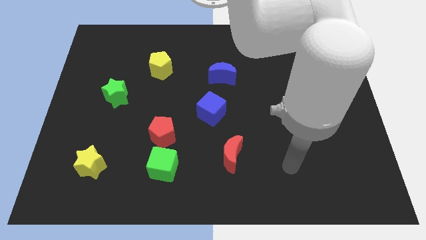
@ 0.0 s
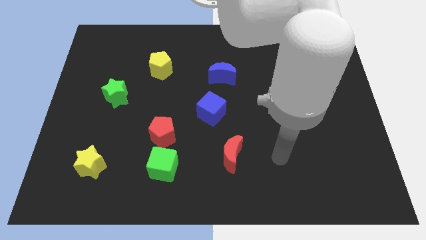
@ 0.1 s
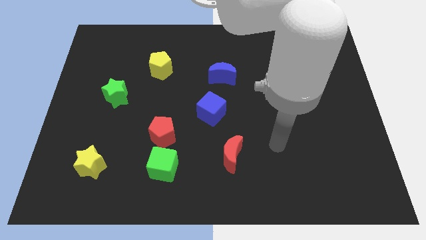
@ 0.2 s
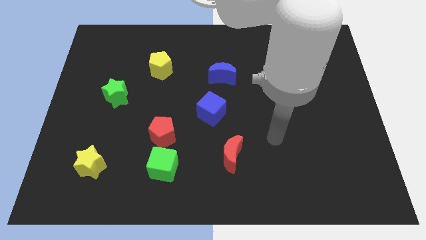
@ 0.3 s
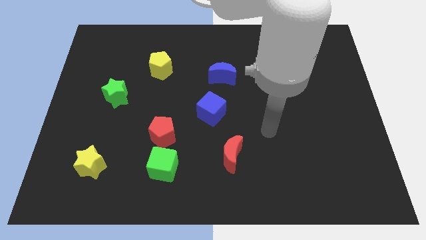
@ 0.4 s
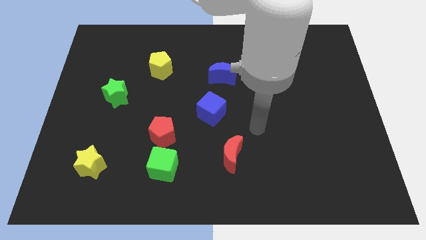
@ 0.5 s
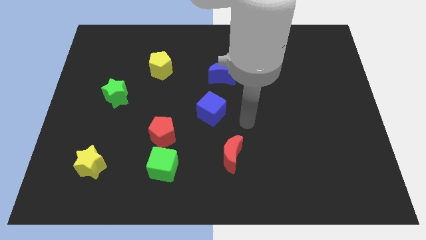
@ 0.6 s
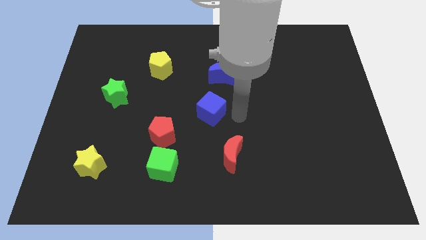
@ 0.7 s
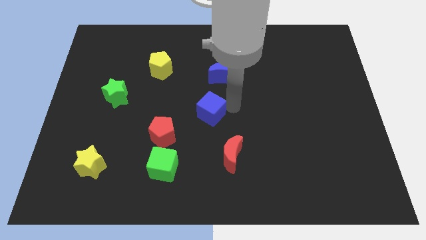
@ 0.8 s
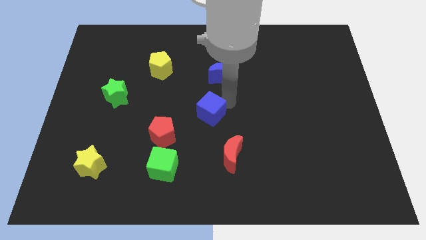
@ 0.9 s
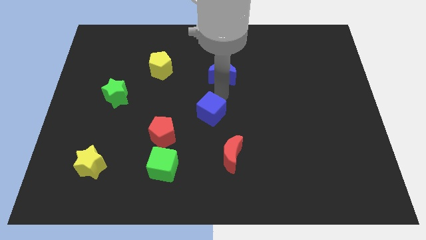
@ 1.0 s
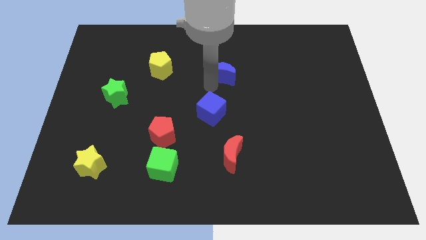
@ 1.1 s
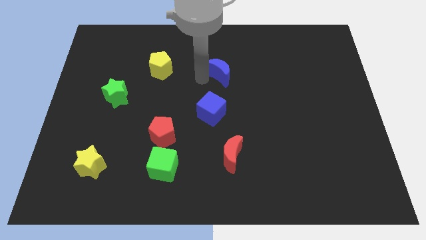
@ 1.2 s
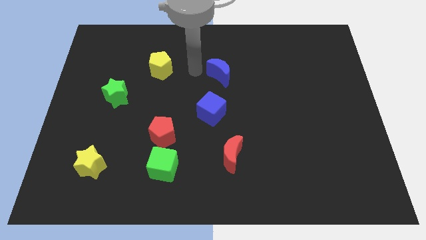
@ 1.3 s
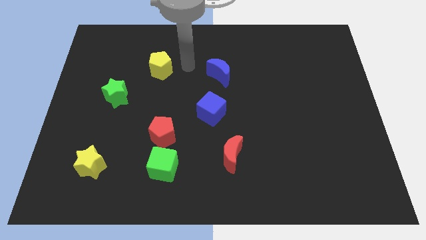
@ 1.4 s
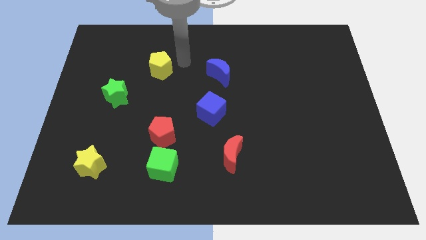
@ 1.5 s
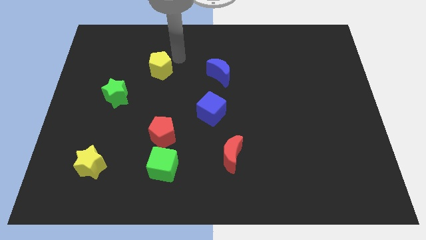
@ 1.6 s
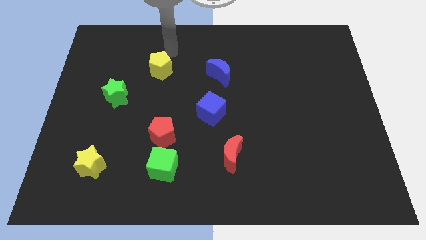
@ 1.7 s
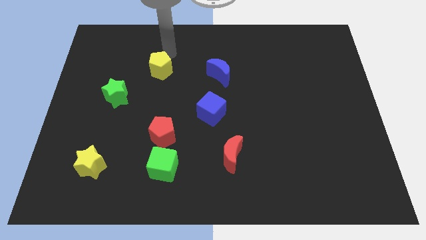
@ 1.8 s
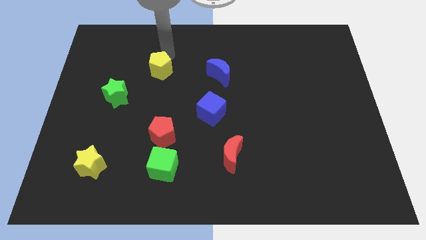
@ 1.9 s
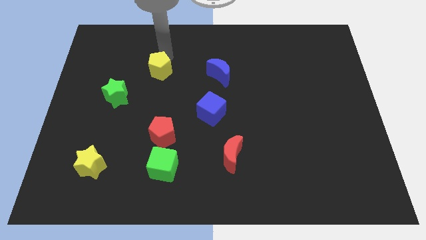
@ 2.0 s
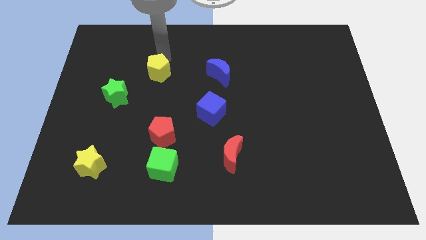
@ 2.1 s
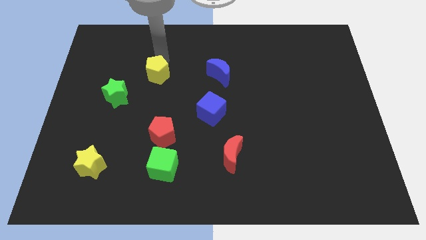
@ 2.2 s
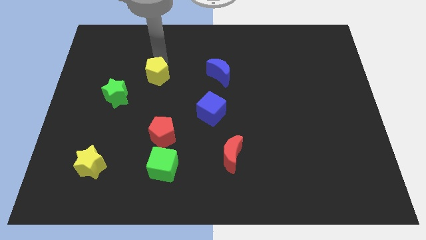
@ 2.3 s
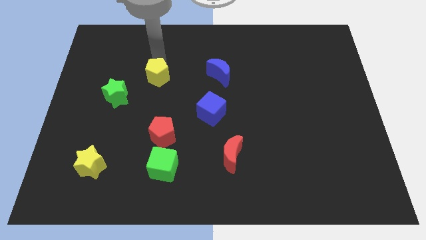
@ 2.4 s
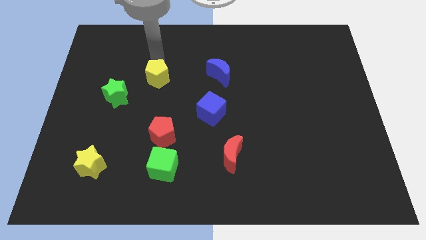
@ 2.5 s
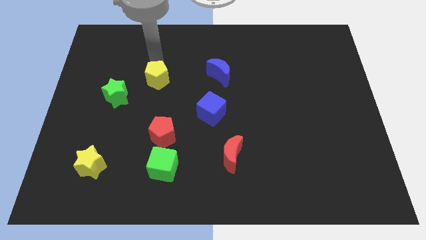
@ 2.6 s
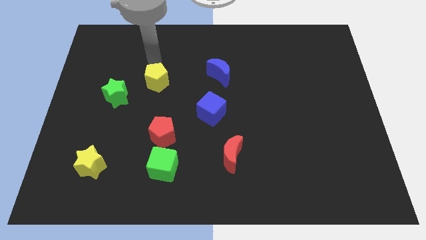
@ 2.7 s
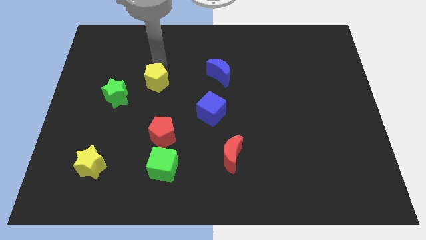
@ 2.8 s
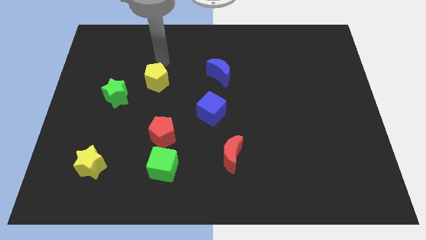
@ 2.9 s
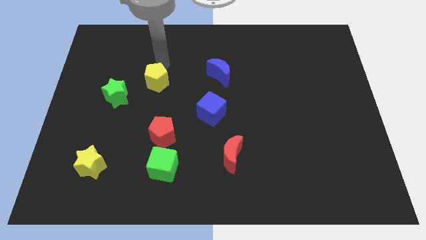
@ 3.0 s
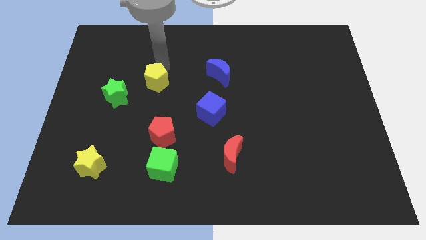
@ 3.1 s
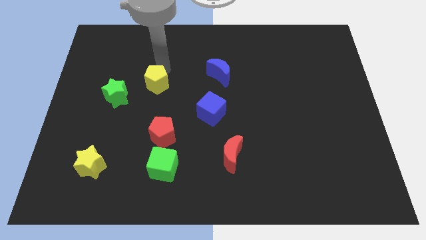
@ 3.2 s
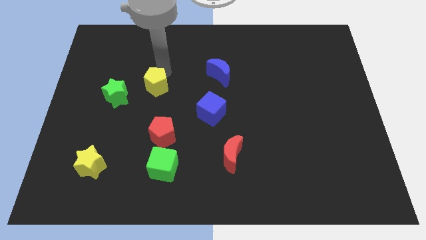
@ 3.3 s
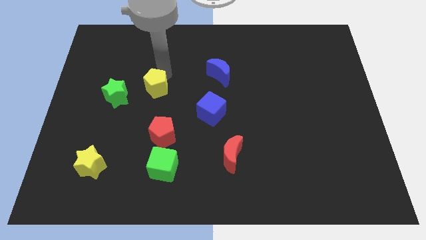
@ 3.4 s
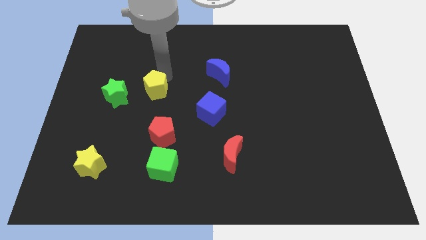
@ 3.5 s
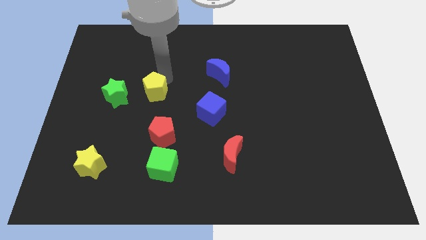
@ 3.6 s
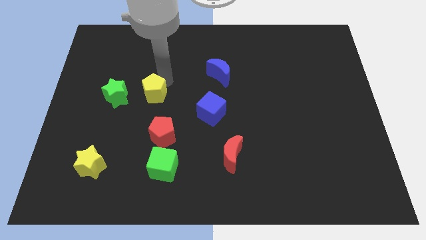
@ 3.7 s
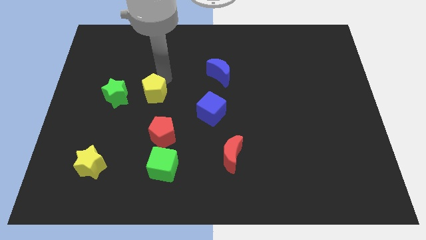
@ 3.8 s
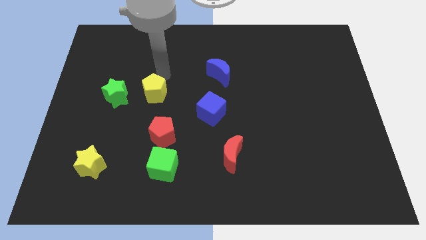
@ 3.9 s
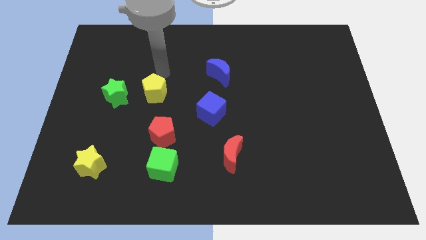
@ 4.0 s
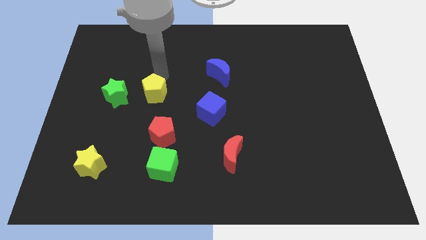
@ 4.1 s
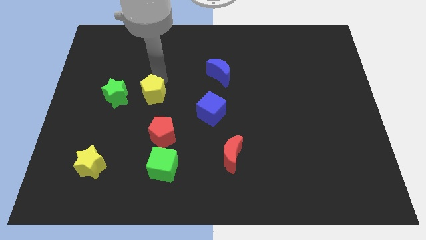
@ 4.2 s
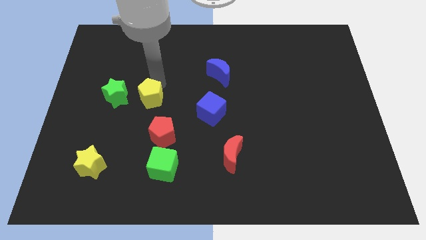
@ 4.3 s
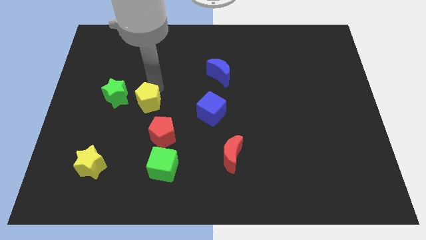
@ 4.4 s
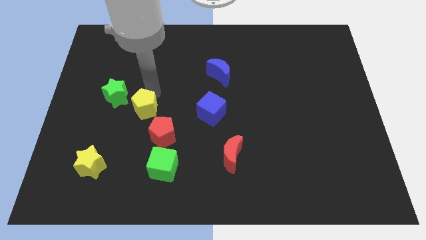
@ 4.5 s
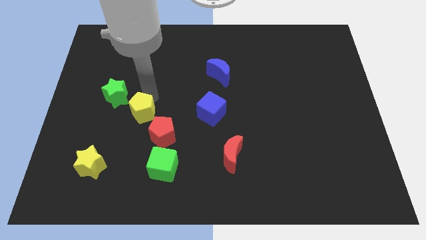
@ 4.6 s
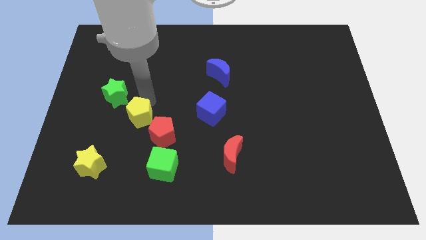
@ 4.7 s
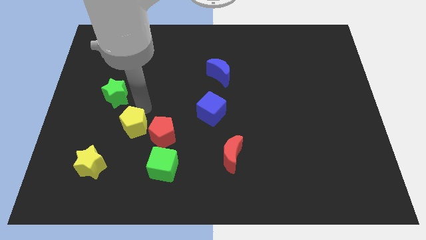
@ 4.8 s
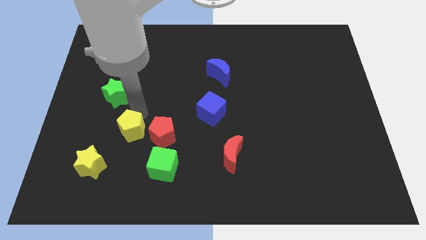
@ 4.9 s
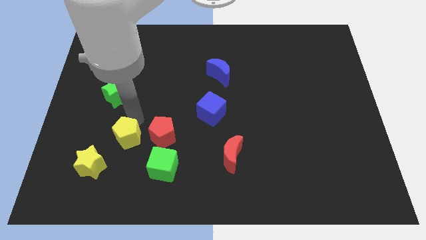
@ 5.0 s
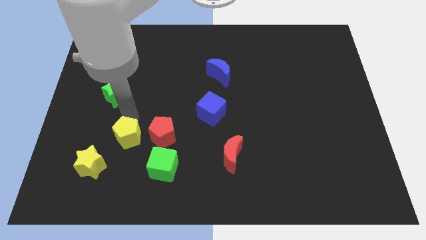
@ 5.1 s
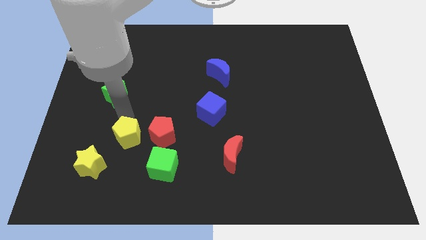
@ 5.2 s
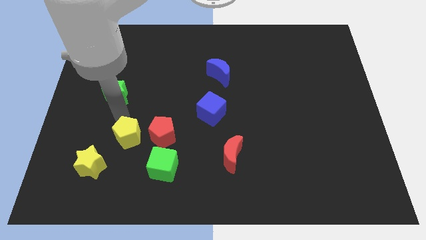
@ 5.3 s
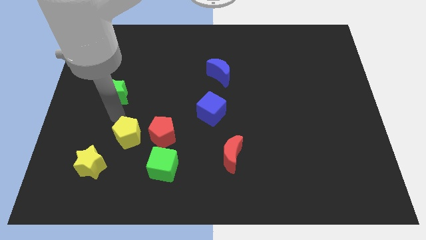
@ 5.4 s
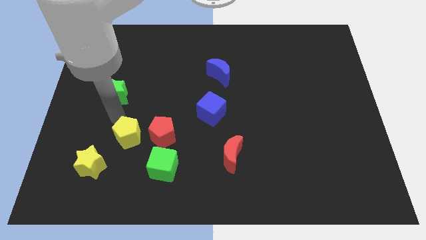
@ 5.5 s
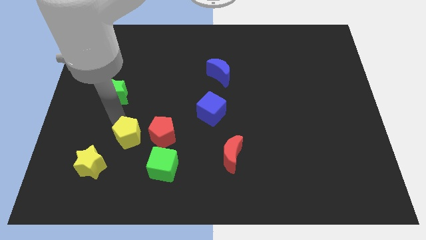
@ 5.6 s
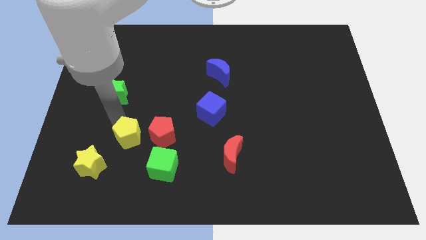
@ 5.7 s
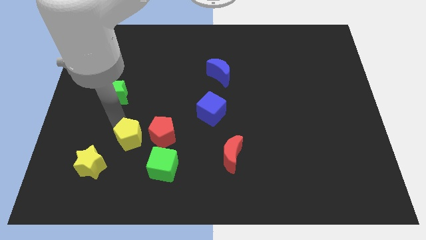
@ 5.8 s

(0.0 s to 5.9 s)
move the yellow pentagon downwards

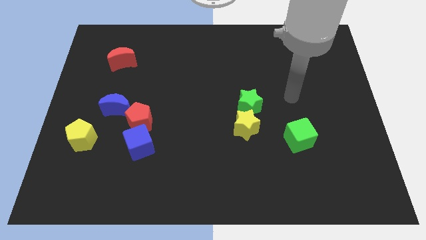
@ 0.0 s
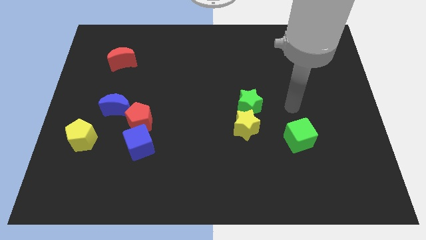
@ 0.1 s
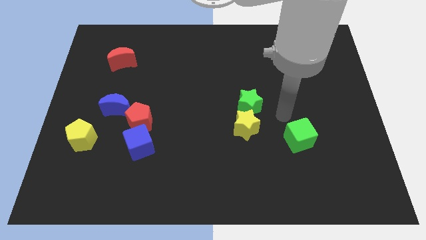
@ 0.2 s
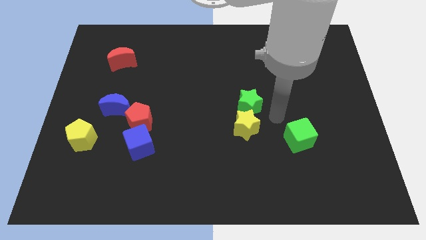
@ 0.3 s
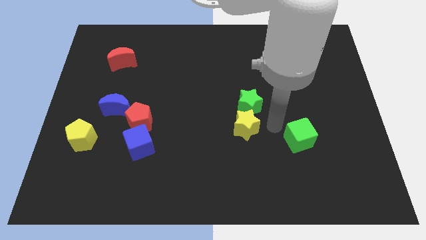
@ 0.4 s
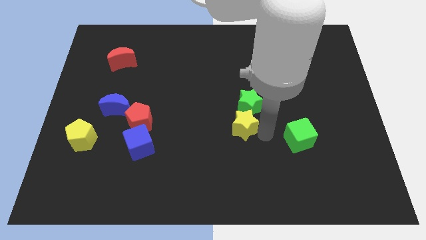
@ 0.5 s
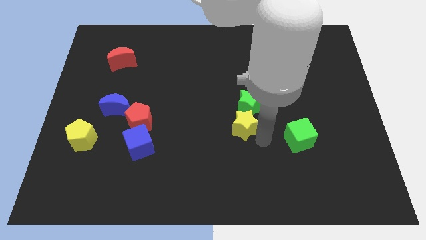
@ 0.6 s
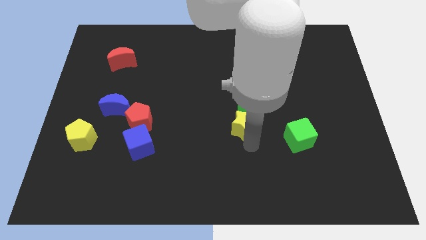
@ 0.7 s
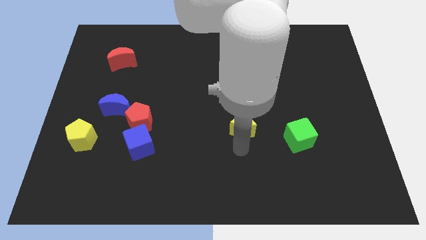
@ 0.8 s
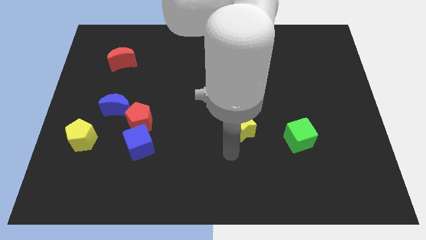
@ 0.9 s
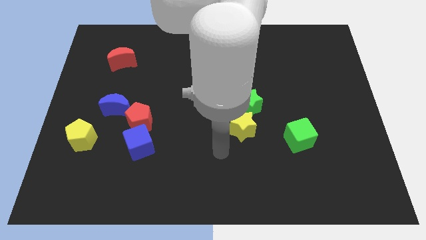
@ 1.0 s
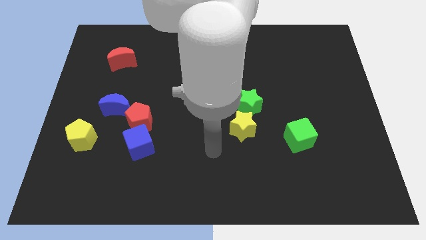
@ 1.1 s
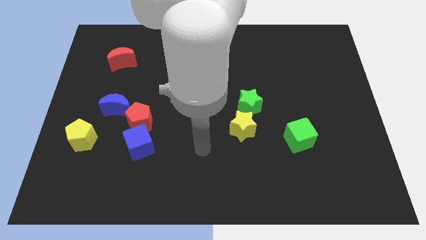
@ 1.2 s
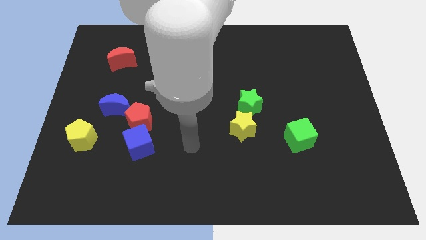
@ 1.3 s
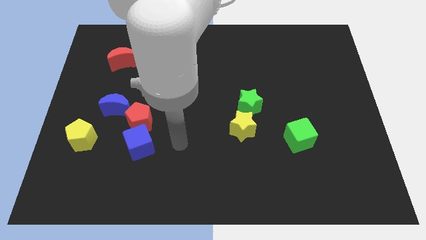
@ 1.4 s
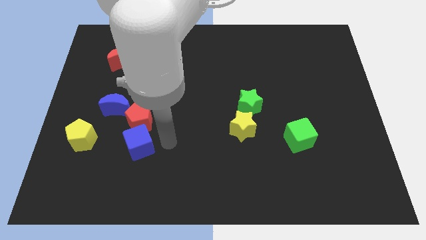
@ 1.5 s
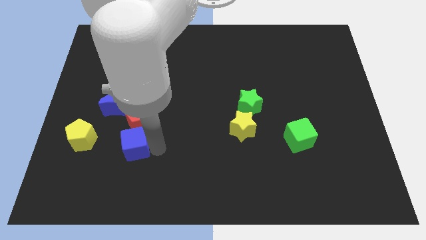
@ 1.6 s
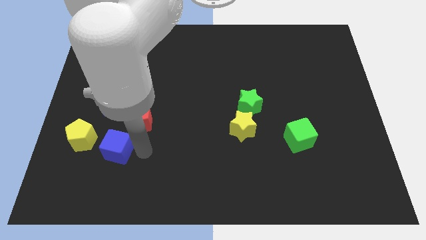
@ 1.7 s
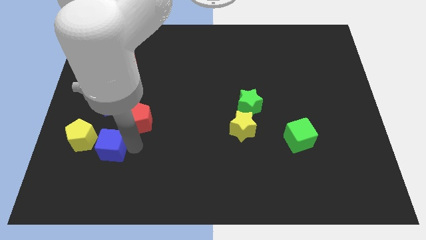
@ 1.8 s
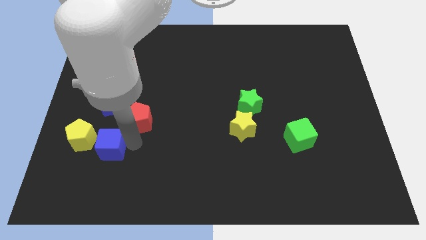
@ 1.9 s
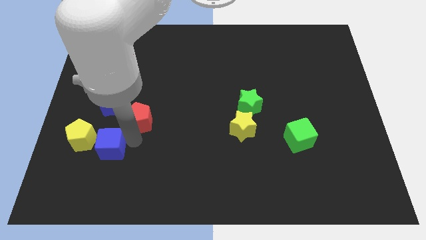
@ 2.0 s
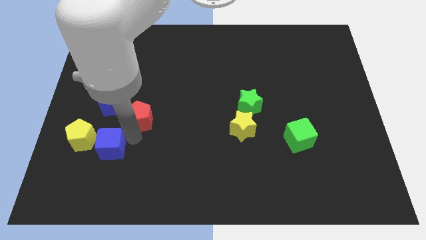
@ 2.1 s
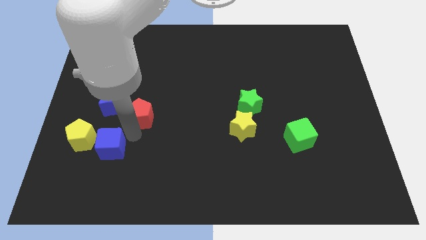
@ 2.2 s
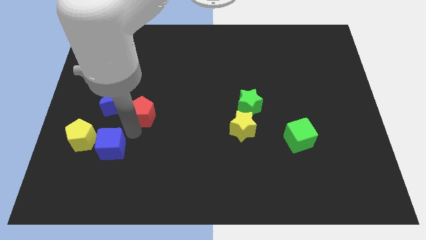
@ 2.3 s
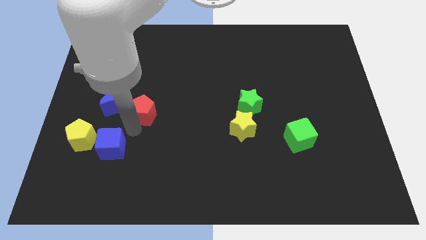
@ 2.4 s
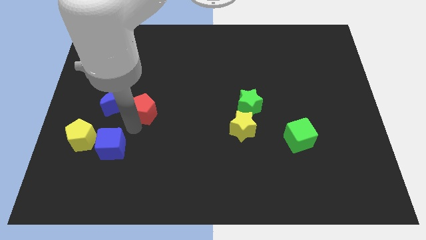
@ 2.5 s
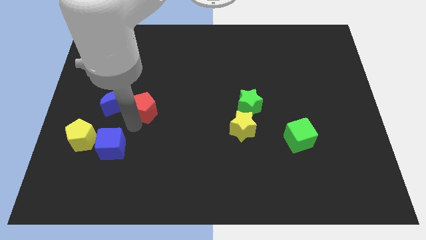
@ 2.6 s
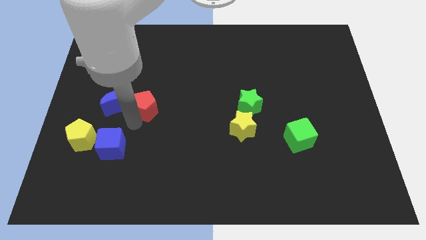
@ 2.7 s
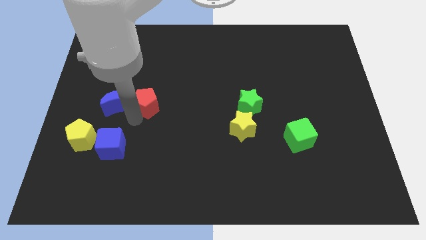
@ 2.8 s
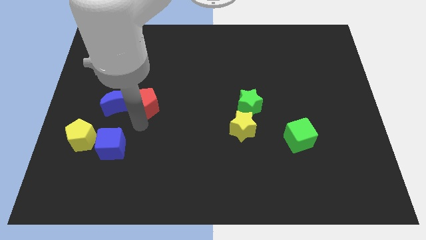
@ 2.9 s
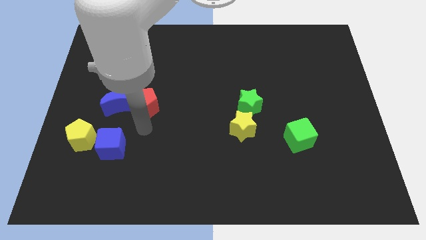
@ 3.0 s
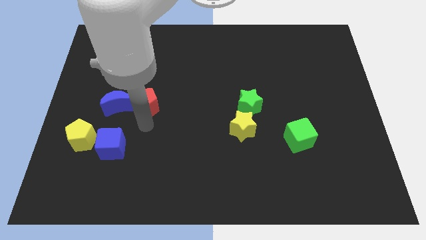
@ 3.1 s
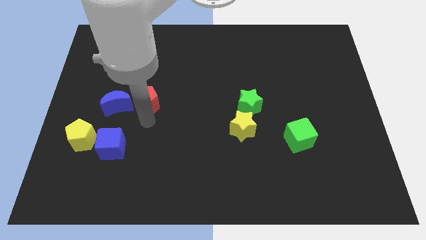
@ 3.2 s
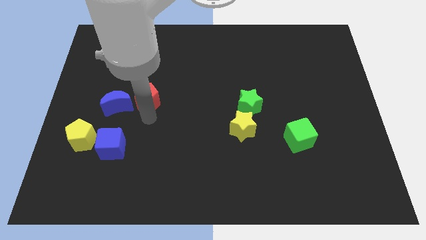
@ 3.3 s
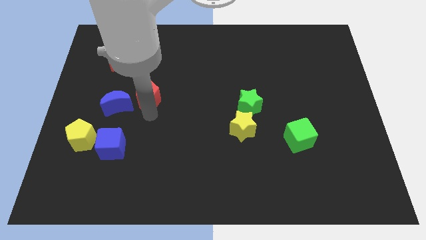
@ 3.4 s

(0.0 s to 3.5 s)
slightly move the red pentagon up
